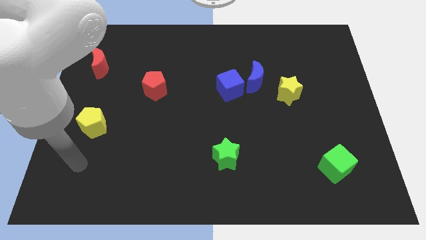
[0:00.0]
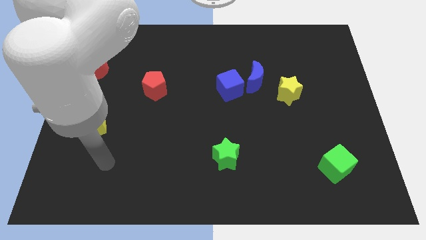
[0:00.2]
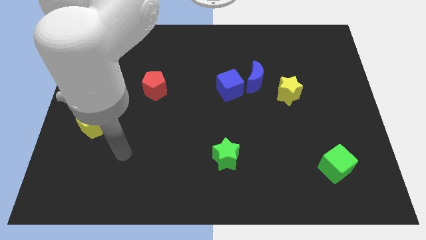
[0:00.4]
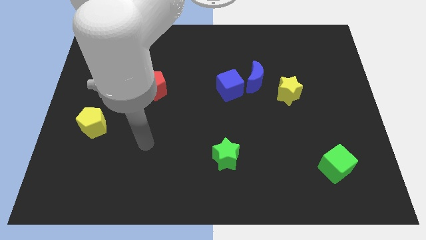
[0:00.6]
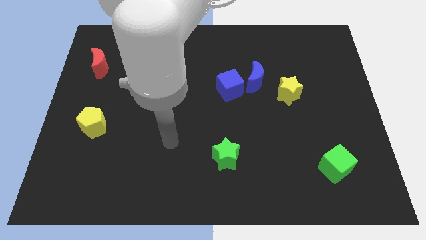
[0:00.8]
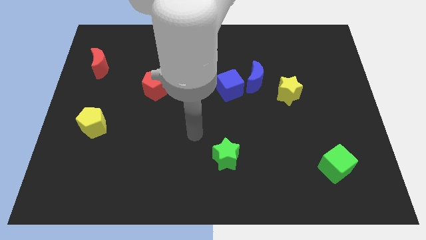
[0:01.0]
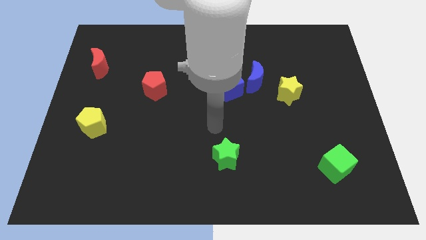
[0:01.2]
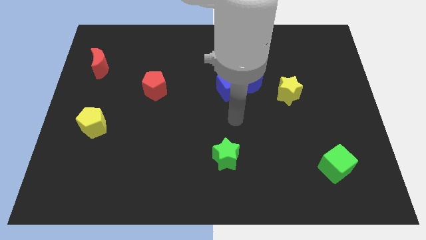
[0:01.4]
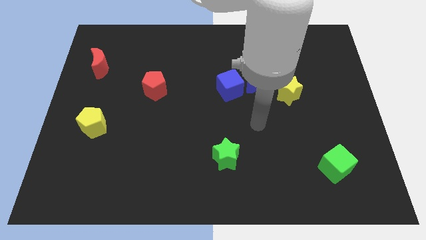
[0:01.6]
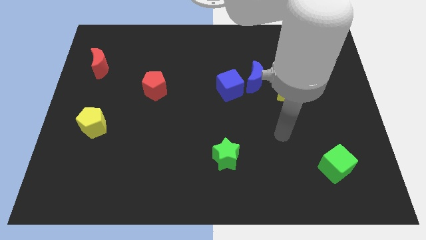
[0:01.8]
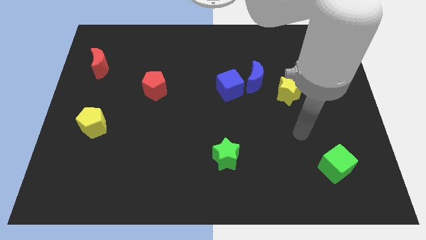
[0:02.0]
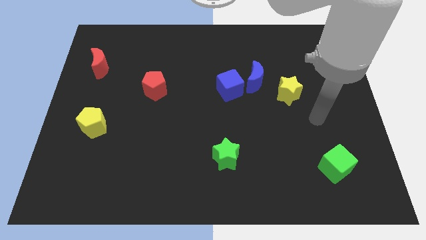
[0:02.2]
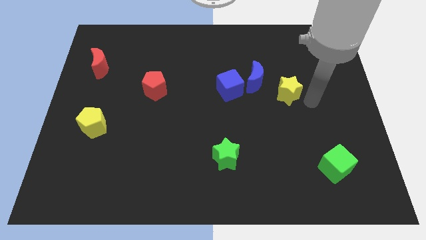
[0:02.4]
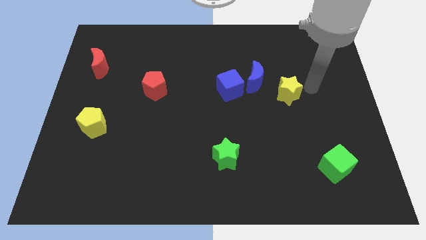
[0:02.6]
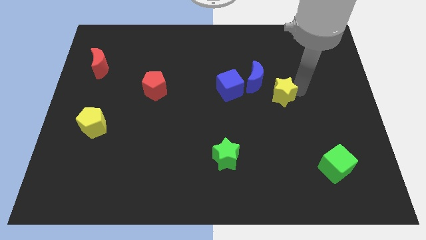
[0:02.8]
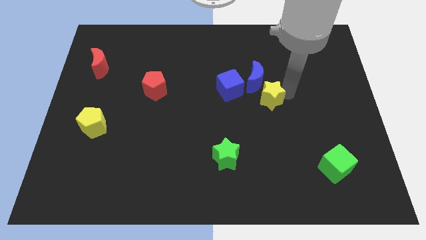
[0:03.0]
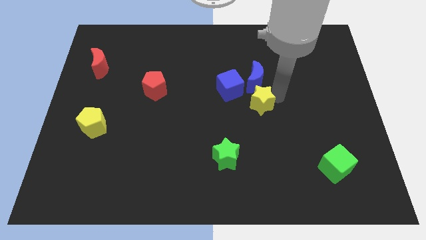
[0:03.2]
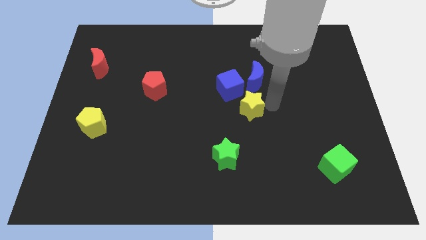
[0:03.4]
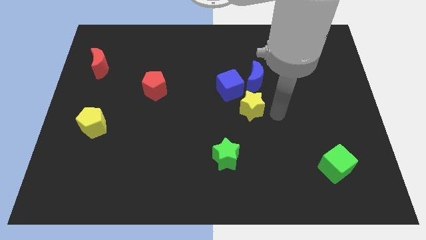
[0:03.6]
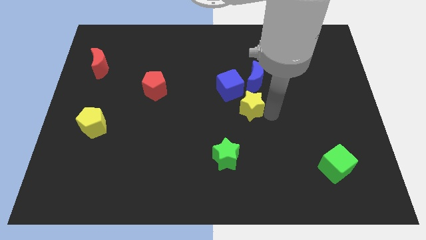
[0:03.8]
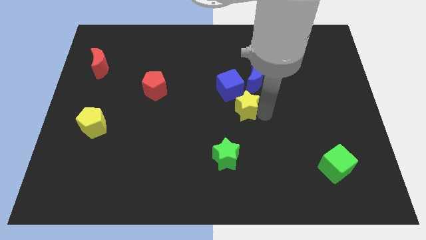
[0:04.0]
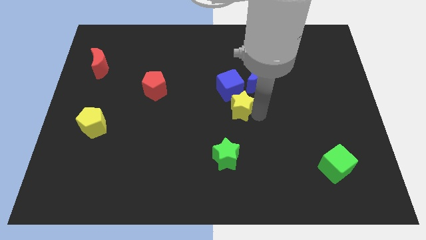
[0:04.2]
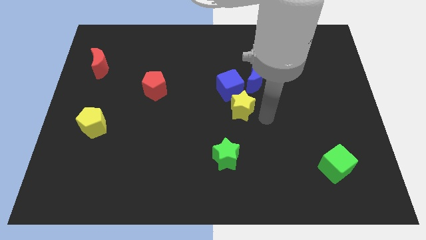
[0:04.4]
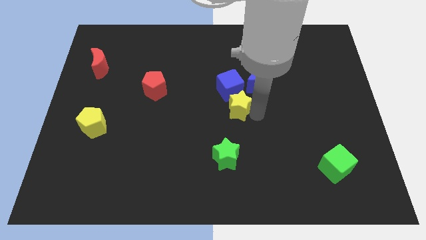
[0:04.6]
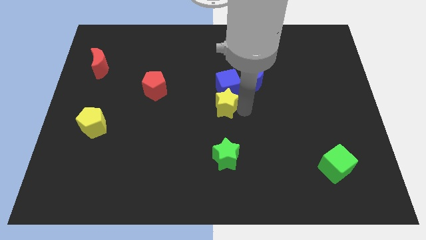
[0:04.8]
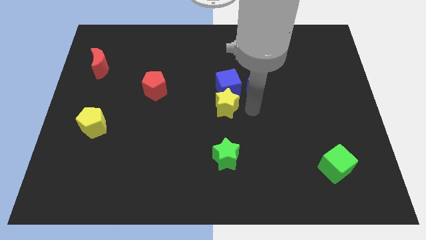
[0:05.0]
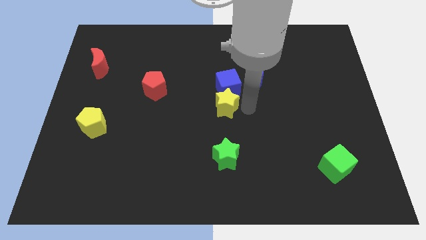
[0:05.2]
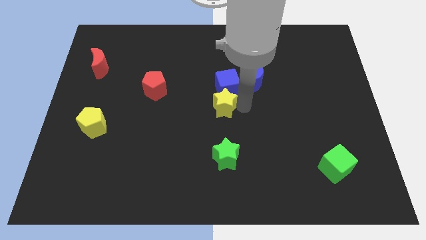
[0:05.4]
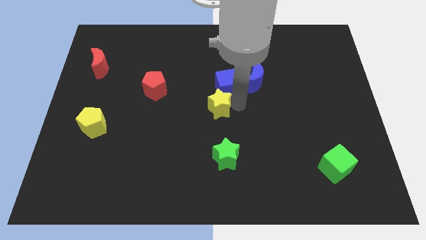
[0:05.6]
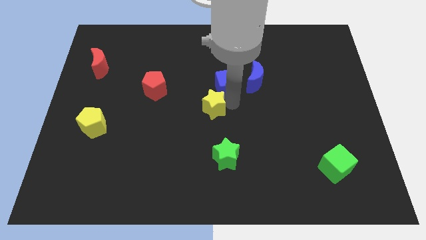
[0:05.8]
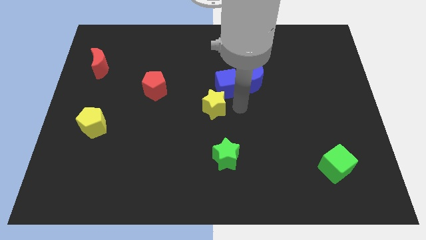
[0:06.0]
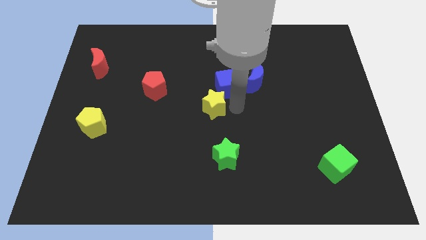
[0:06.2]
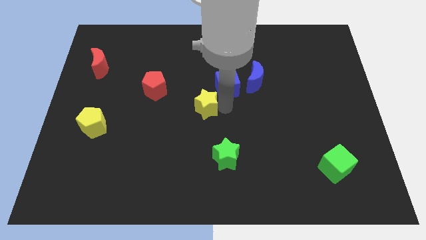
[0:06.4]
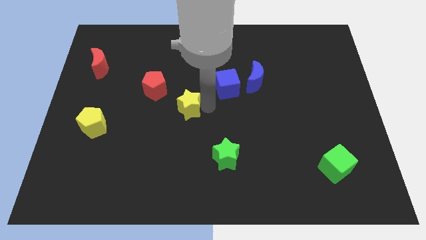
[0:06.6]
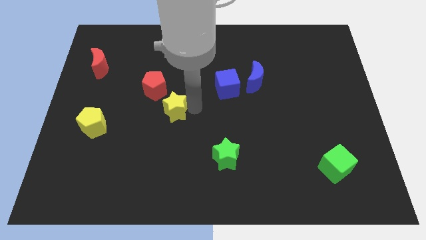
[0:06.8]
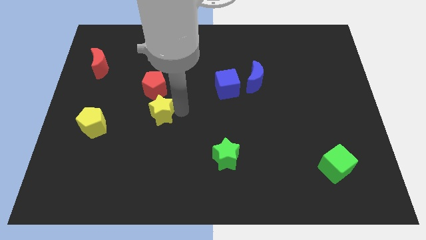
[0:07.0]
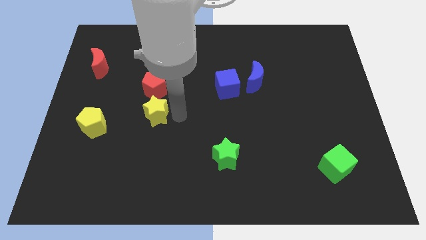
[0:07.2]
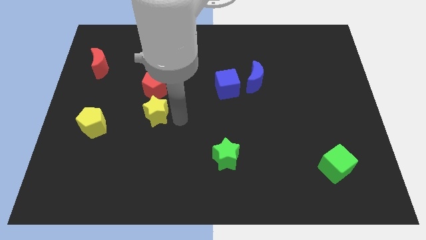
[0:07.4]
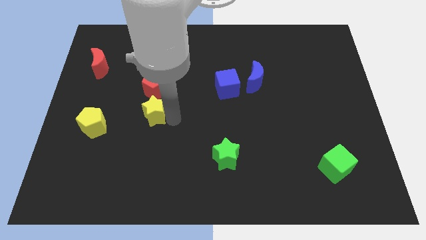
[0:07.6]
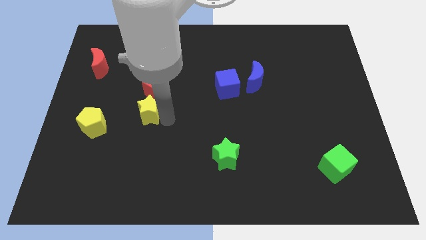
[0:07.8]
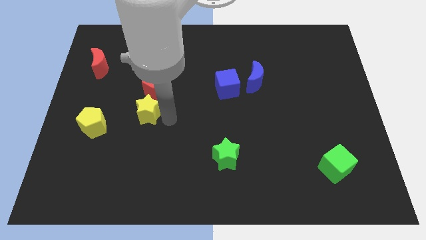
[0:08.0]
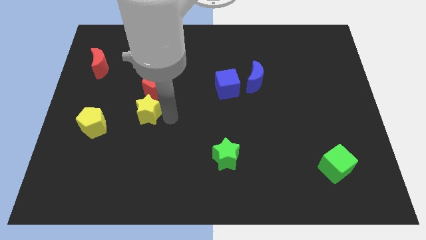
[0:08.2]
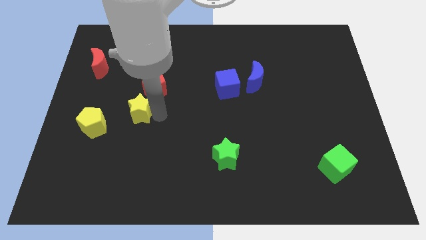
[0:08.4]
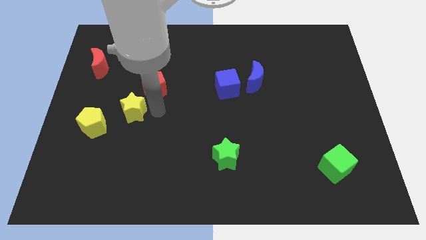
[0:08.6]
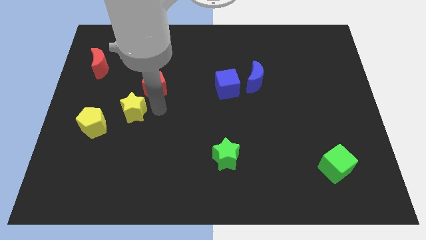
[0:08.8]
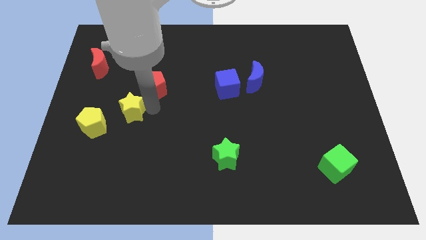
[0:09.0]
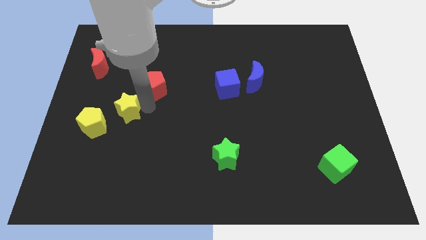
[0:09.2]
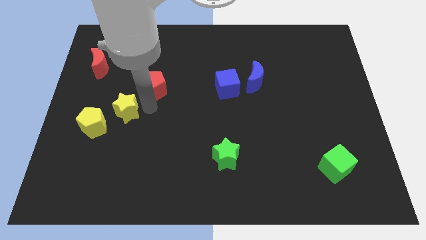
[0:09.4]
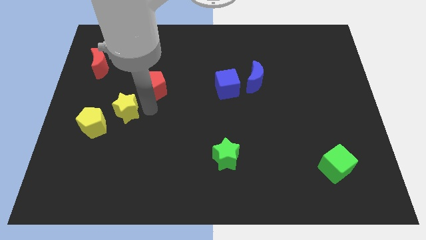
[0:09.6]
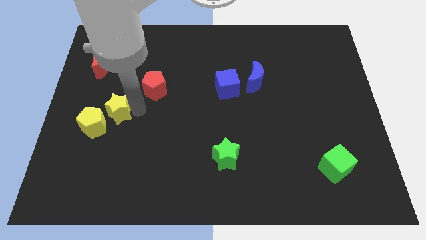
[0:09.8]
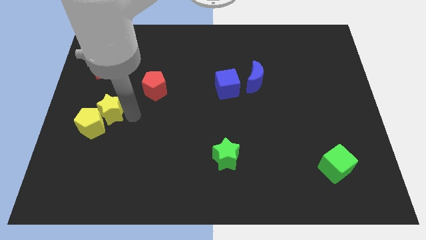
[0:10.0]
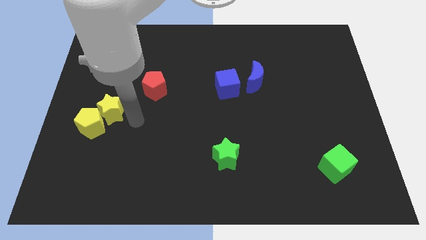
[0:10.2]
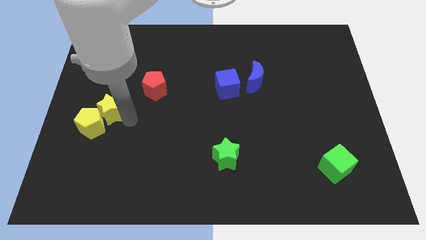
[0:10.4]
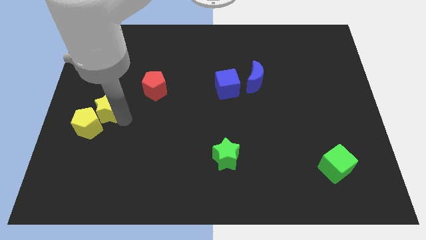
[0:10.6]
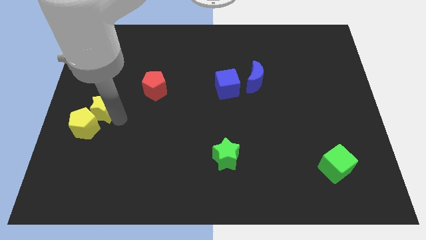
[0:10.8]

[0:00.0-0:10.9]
slide the yellow star to the center left
